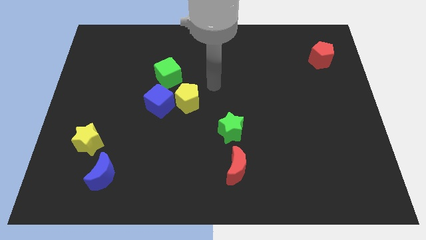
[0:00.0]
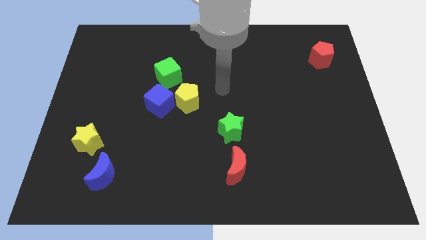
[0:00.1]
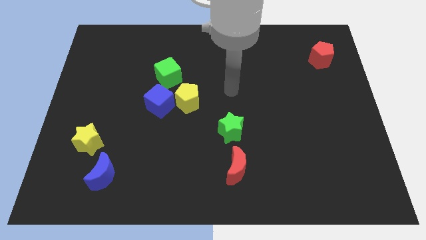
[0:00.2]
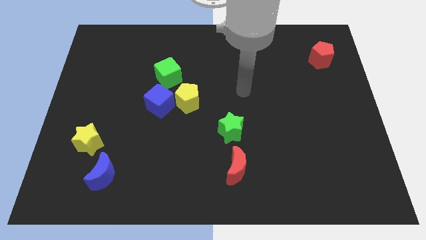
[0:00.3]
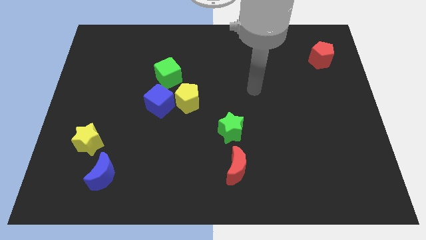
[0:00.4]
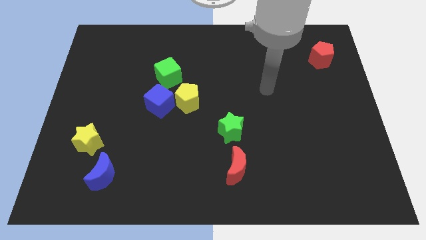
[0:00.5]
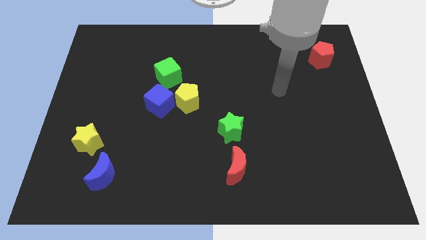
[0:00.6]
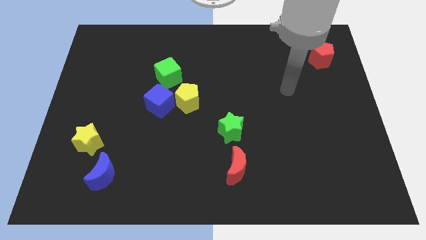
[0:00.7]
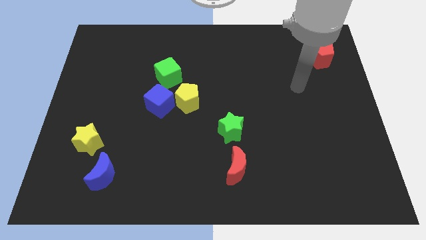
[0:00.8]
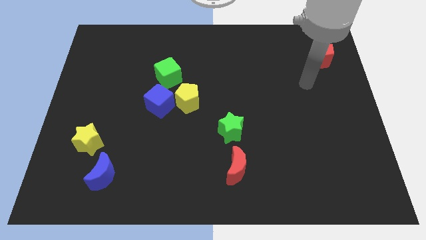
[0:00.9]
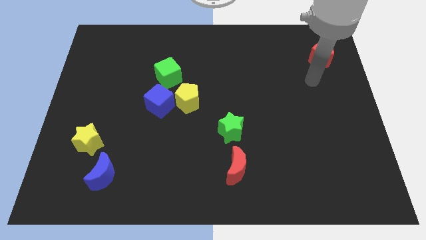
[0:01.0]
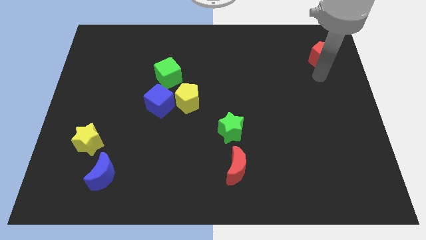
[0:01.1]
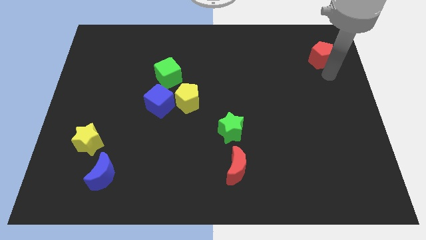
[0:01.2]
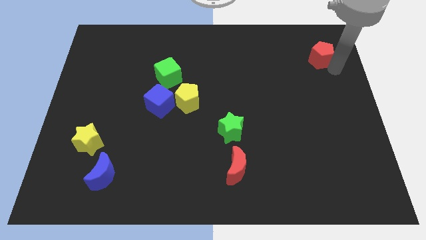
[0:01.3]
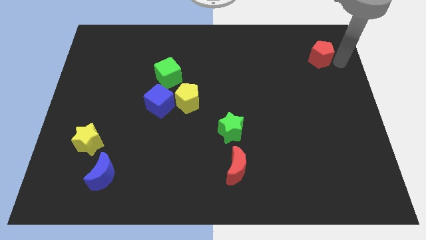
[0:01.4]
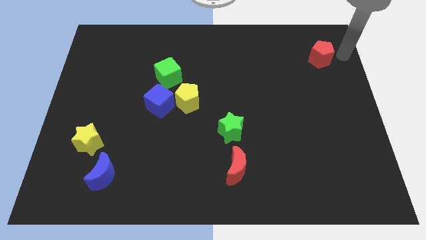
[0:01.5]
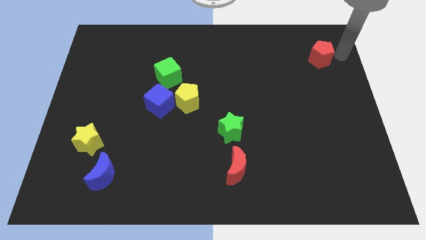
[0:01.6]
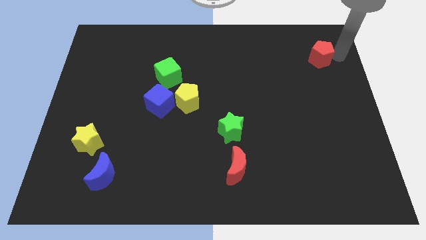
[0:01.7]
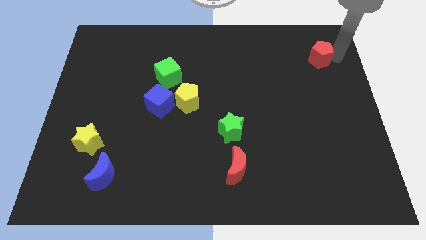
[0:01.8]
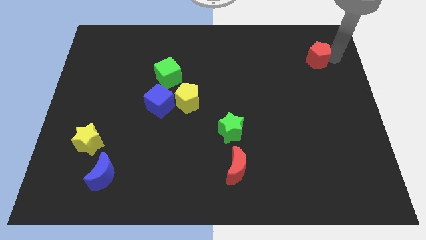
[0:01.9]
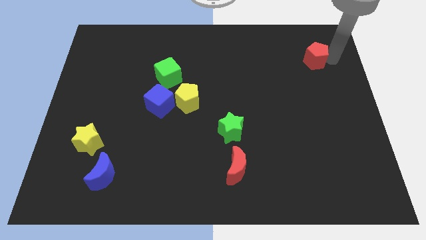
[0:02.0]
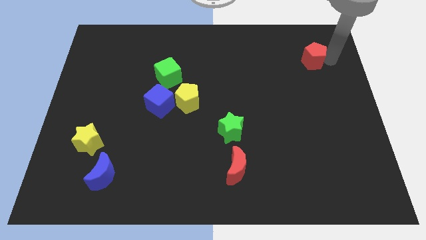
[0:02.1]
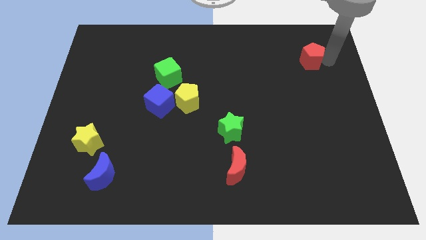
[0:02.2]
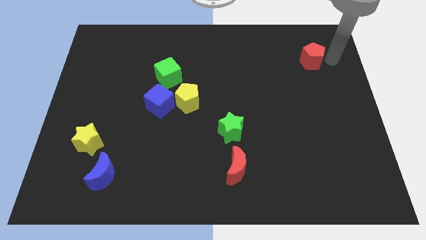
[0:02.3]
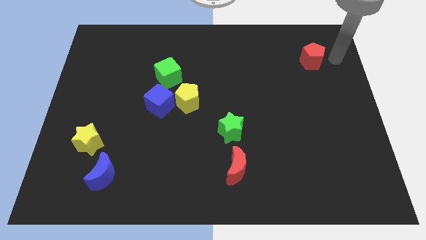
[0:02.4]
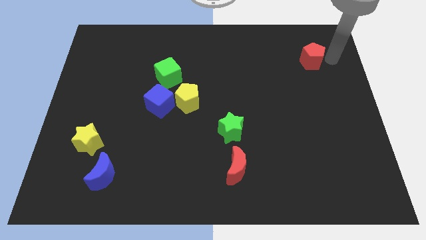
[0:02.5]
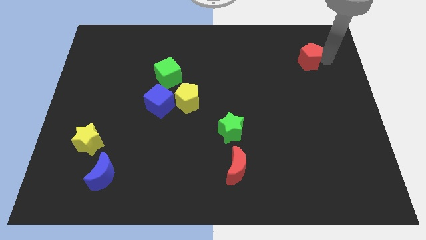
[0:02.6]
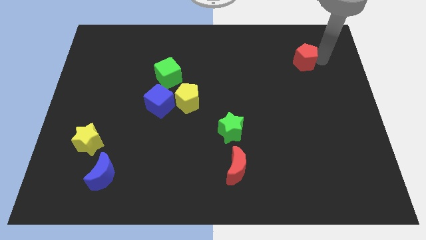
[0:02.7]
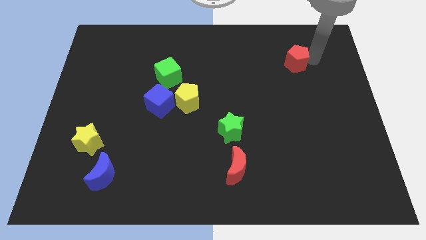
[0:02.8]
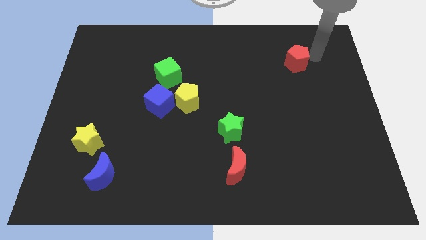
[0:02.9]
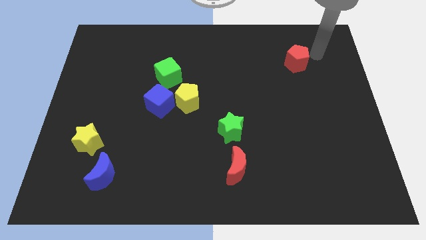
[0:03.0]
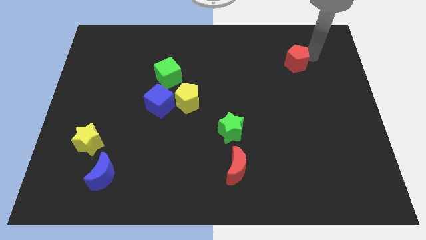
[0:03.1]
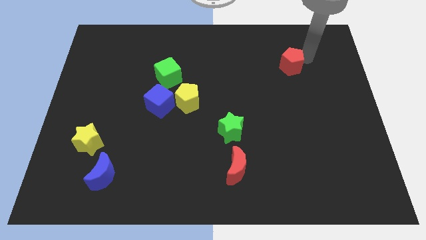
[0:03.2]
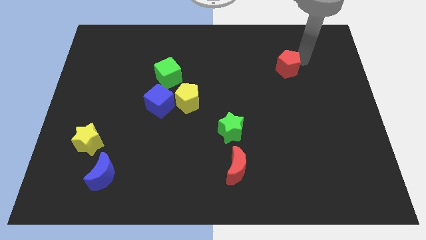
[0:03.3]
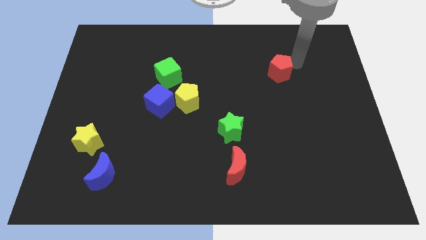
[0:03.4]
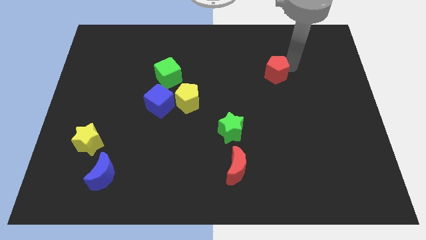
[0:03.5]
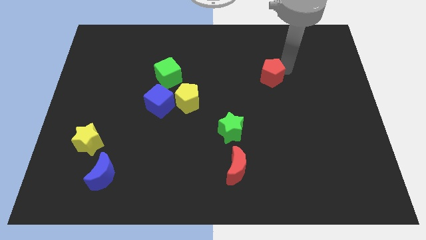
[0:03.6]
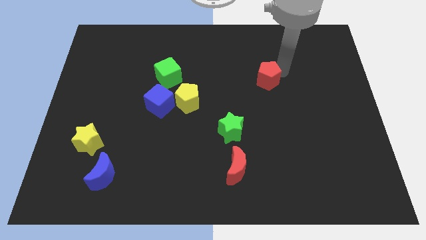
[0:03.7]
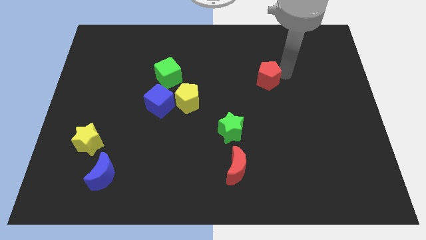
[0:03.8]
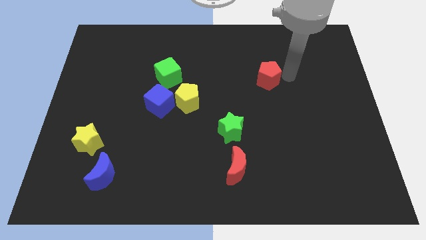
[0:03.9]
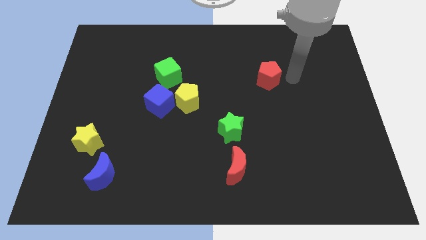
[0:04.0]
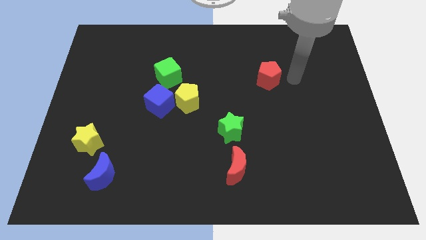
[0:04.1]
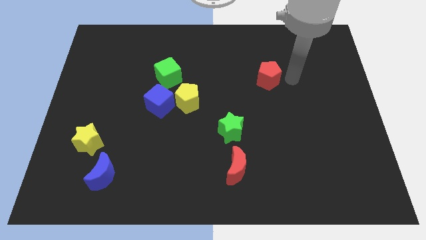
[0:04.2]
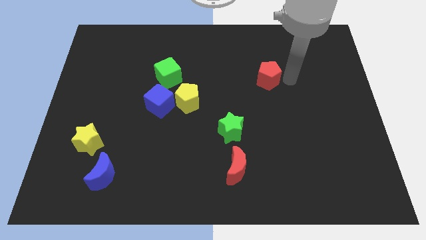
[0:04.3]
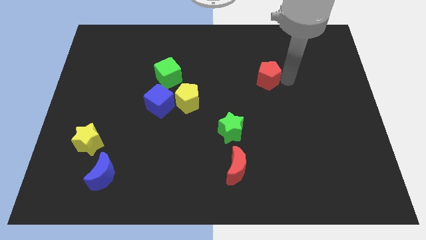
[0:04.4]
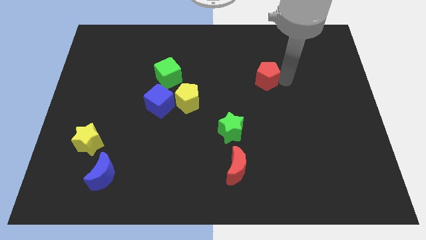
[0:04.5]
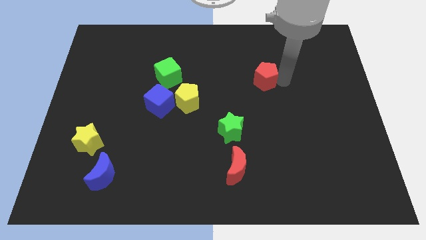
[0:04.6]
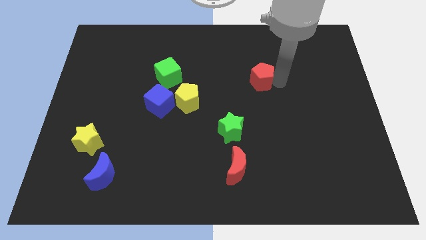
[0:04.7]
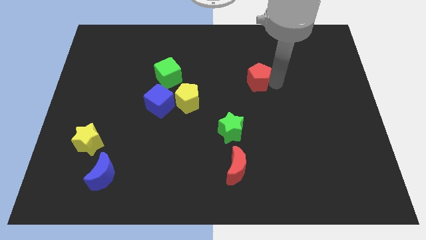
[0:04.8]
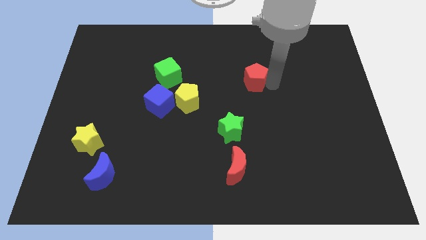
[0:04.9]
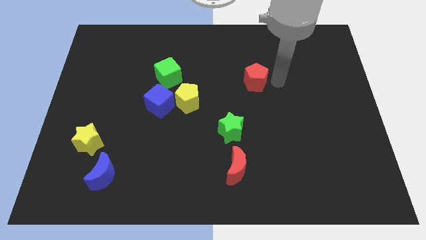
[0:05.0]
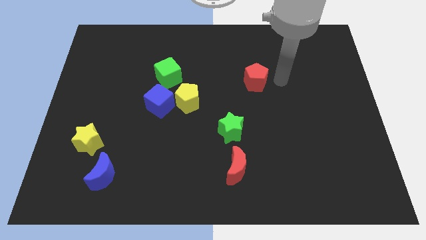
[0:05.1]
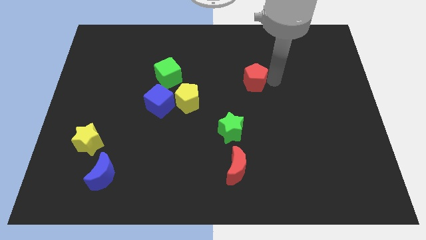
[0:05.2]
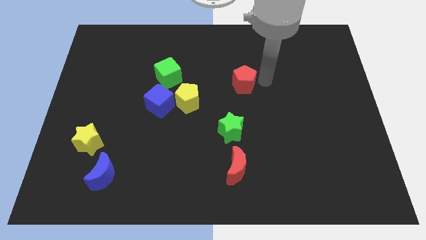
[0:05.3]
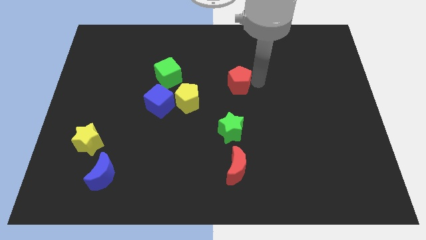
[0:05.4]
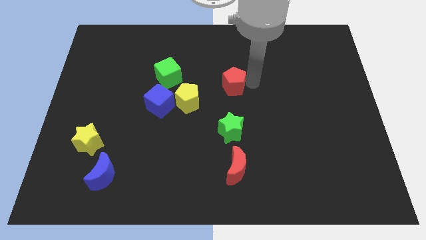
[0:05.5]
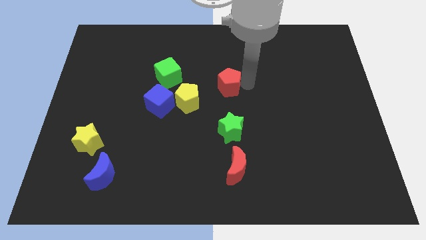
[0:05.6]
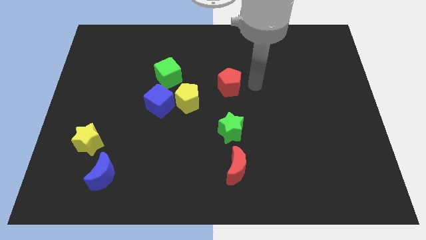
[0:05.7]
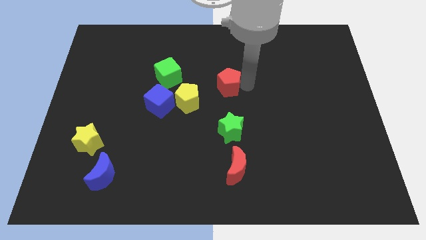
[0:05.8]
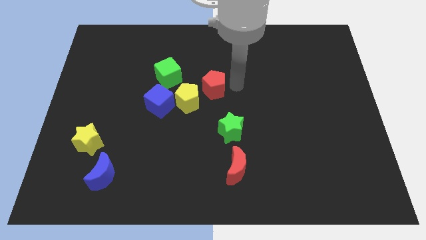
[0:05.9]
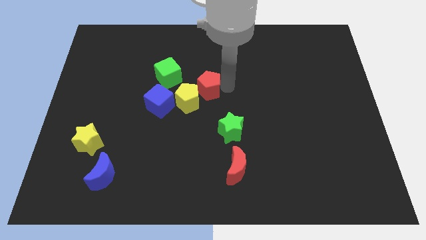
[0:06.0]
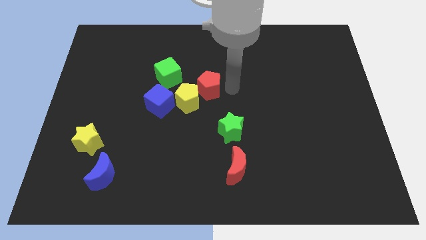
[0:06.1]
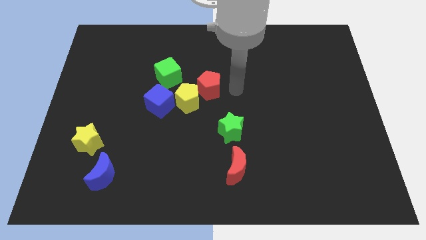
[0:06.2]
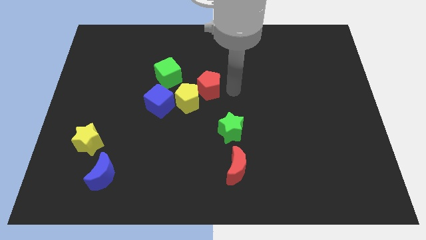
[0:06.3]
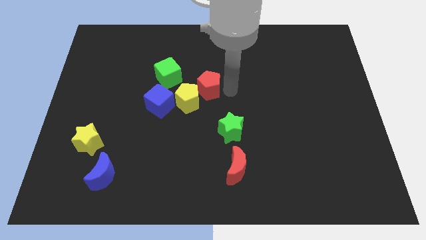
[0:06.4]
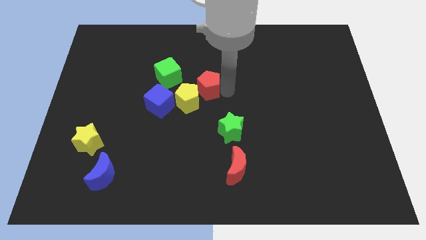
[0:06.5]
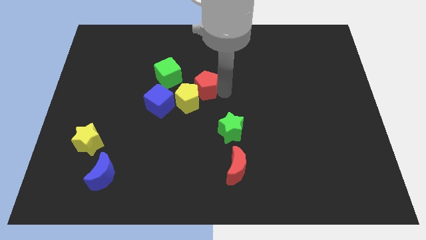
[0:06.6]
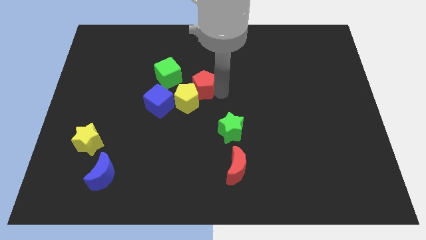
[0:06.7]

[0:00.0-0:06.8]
put the red pentagon diagonally up and to the right of the blue cube
